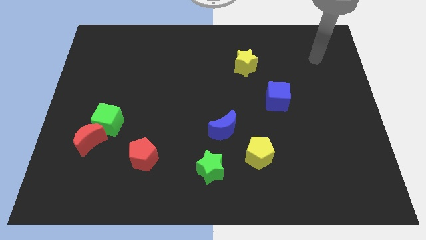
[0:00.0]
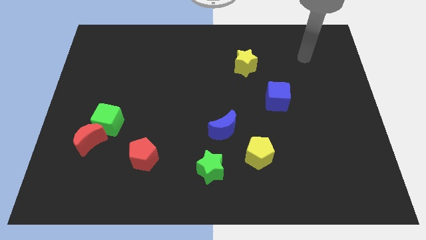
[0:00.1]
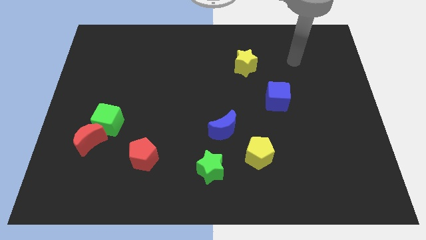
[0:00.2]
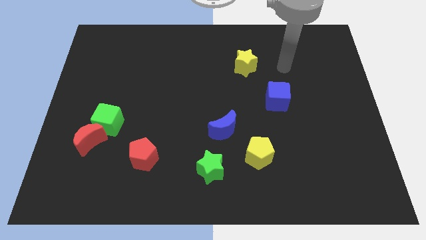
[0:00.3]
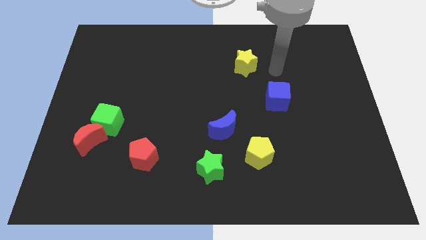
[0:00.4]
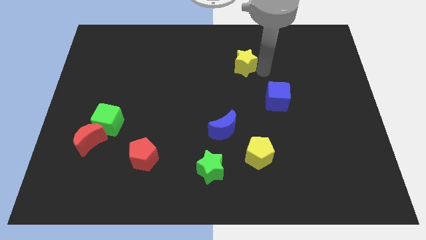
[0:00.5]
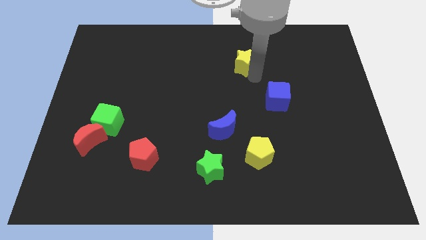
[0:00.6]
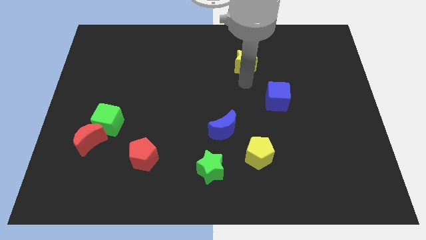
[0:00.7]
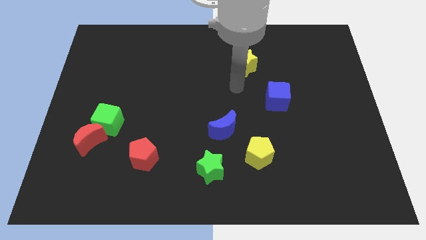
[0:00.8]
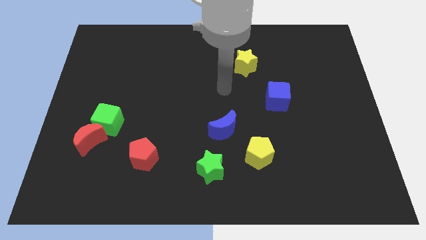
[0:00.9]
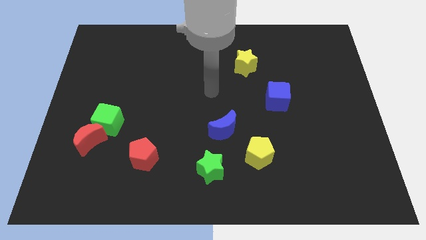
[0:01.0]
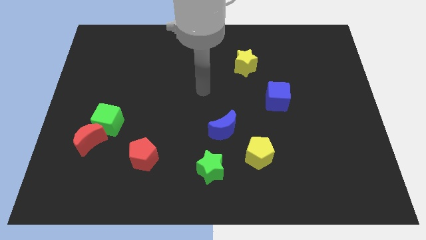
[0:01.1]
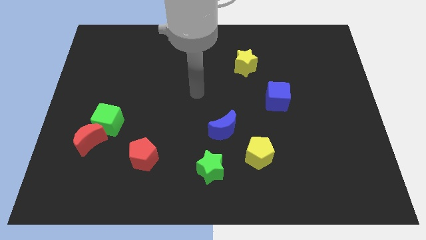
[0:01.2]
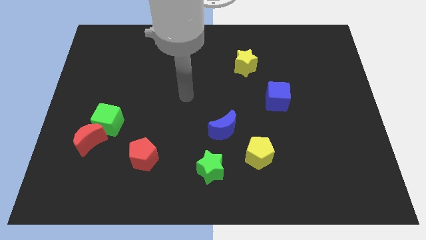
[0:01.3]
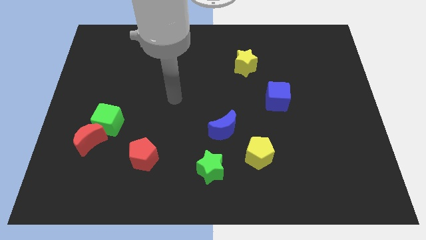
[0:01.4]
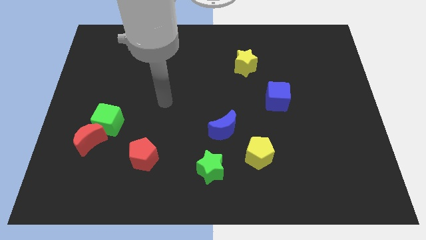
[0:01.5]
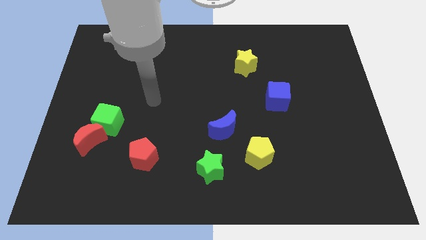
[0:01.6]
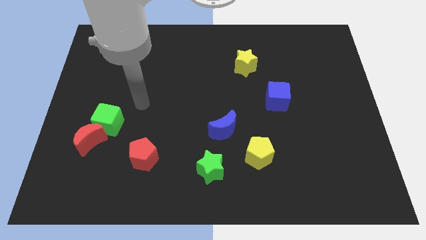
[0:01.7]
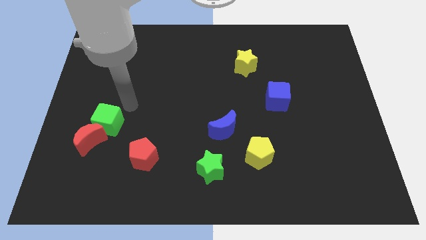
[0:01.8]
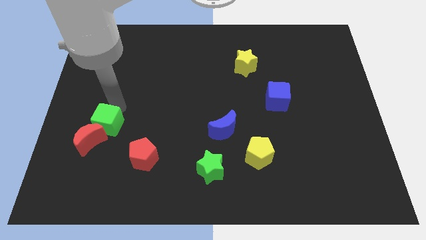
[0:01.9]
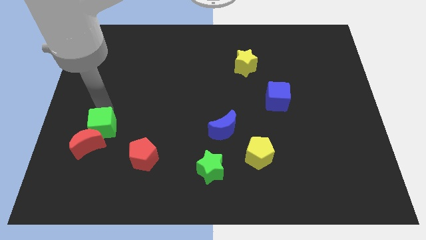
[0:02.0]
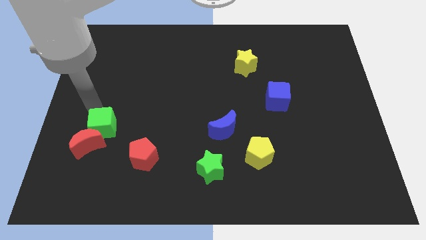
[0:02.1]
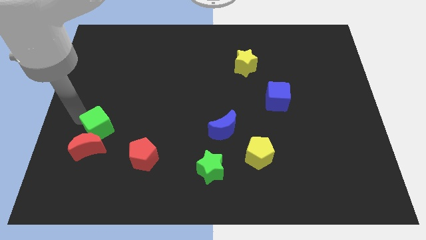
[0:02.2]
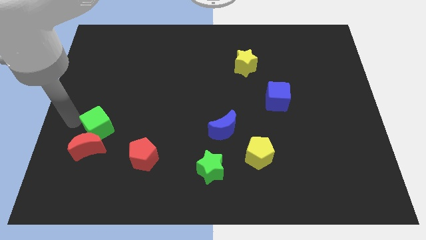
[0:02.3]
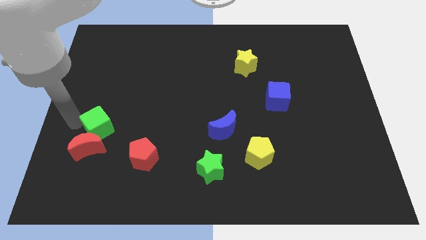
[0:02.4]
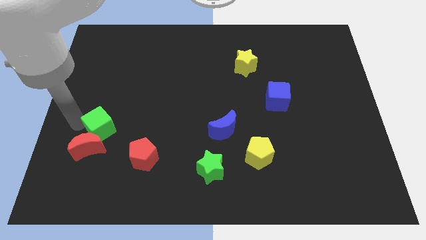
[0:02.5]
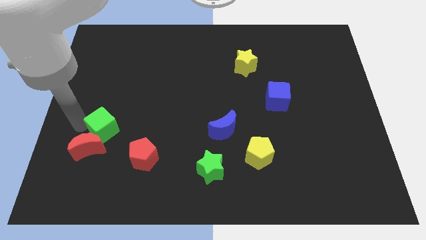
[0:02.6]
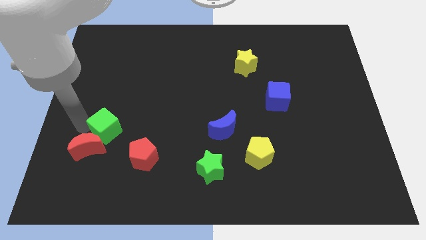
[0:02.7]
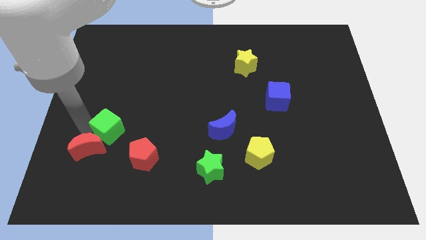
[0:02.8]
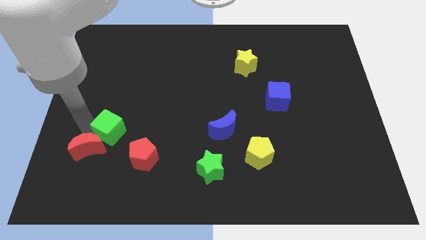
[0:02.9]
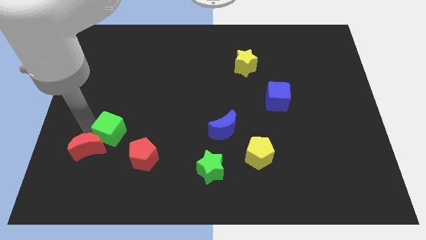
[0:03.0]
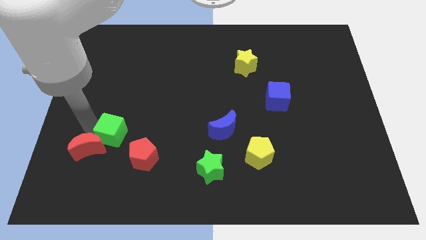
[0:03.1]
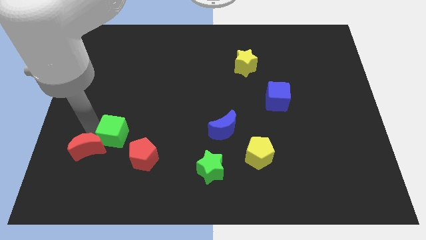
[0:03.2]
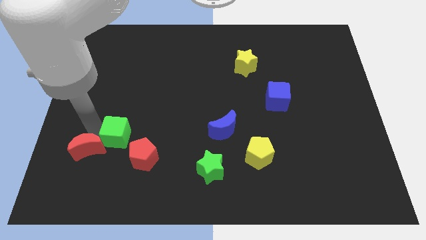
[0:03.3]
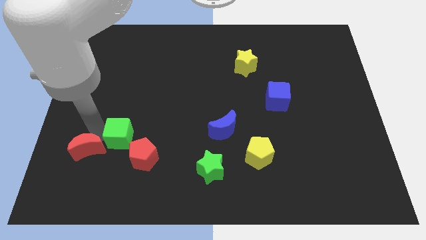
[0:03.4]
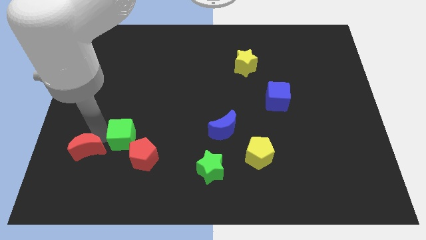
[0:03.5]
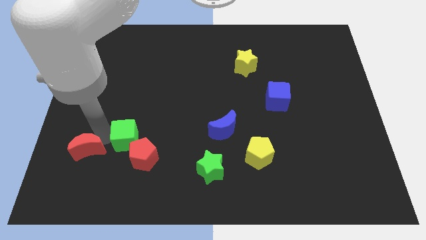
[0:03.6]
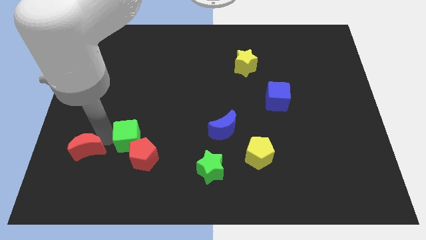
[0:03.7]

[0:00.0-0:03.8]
slightly slide the green cube down and then right

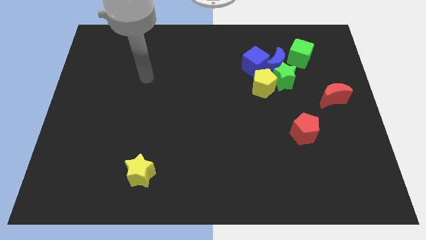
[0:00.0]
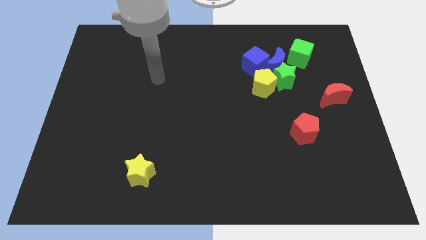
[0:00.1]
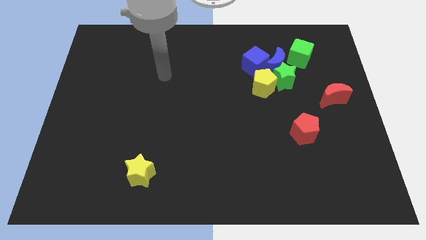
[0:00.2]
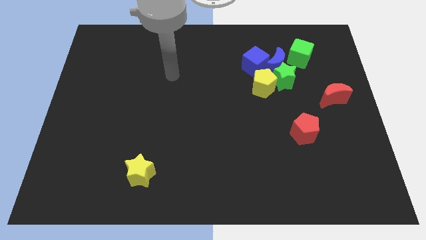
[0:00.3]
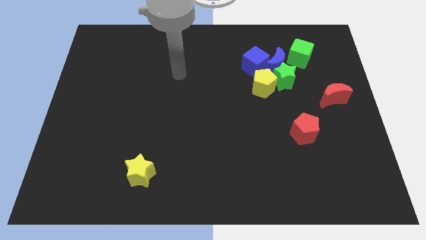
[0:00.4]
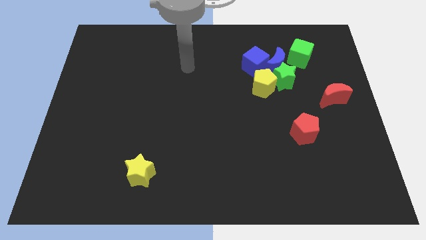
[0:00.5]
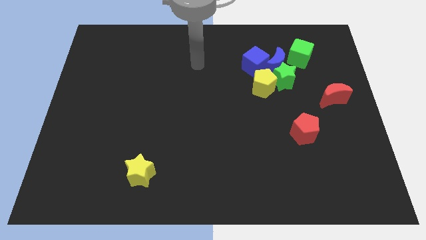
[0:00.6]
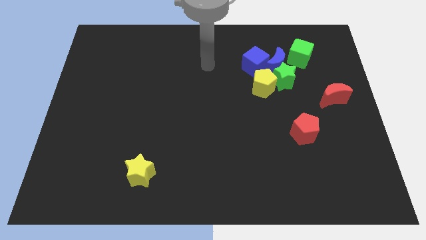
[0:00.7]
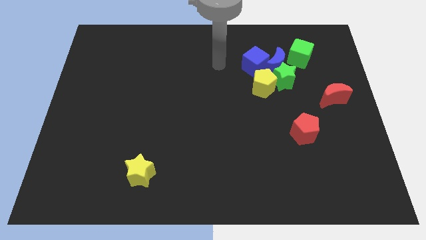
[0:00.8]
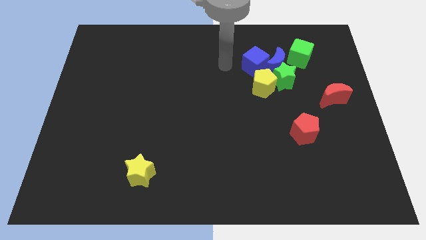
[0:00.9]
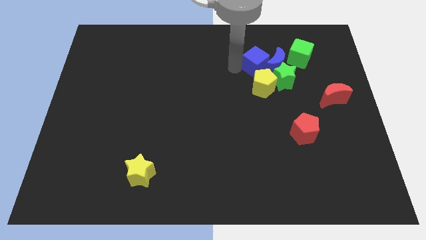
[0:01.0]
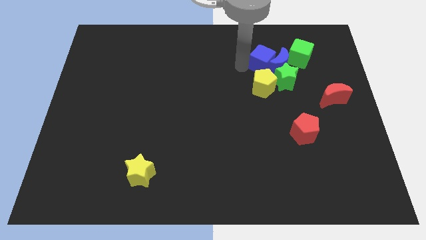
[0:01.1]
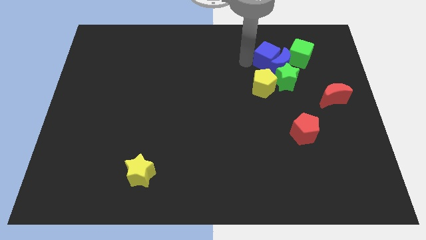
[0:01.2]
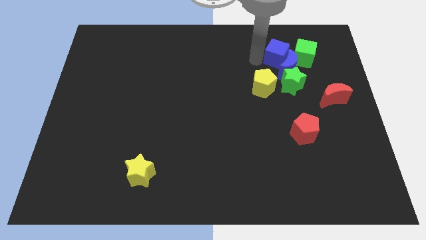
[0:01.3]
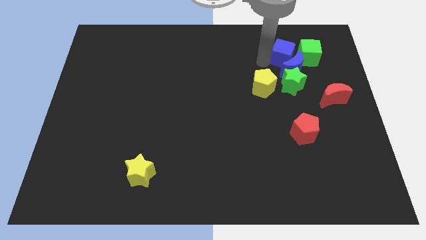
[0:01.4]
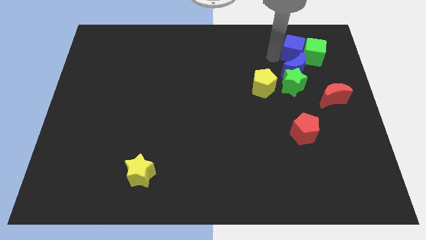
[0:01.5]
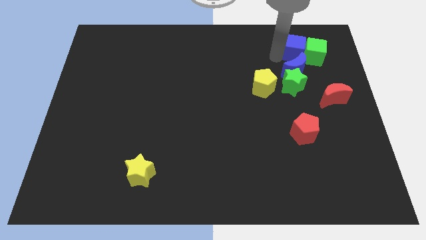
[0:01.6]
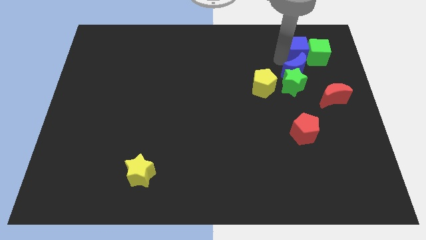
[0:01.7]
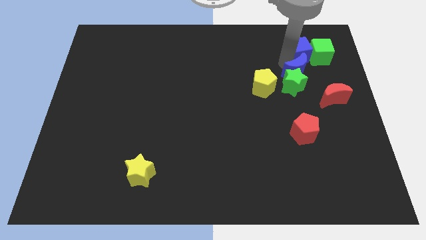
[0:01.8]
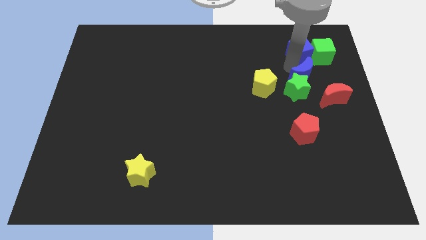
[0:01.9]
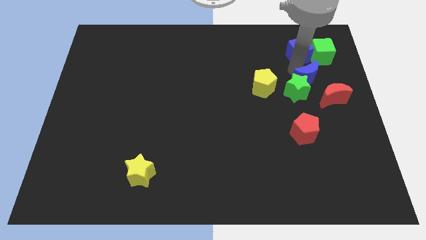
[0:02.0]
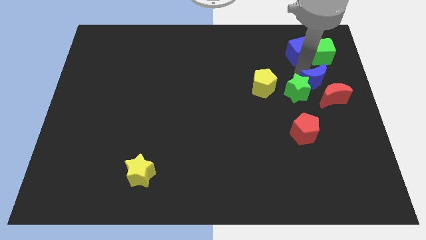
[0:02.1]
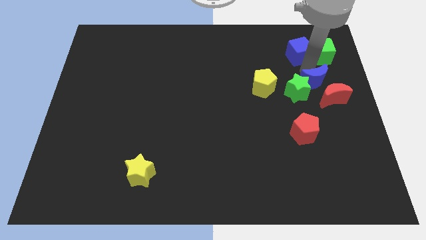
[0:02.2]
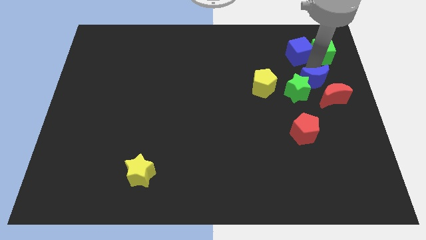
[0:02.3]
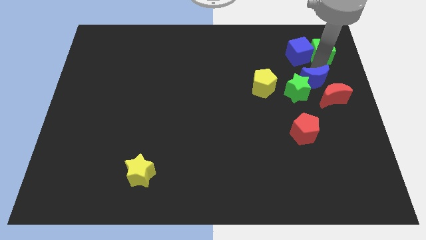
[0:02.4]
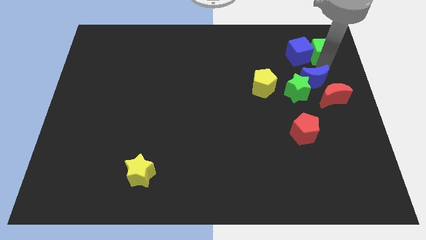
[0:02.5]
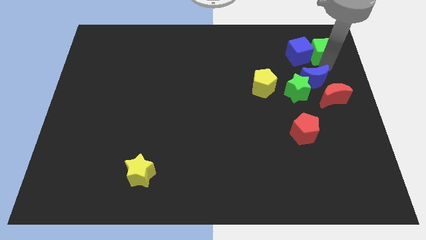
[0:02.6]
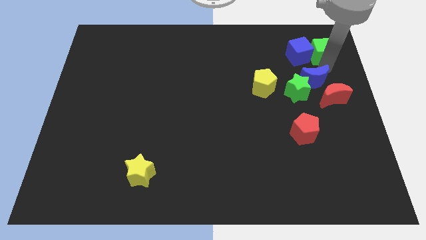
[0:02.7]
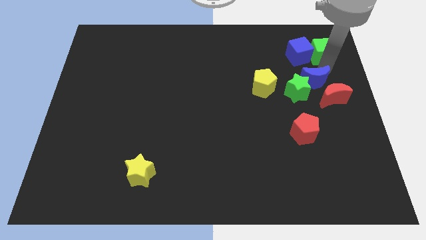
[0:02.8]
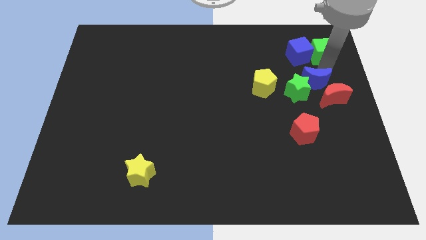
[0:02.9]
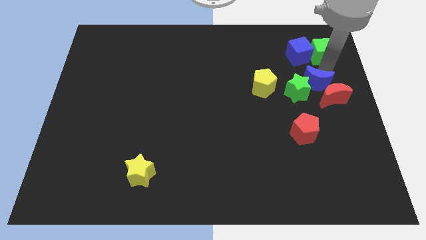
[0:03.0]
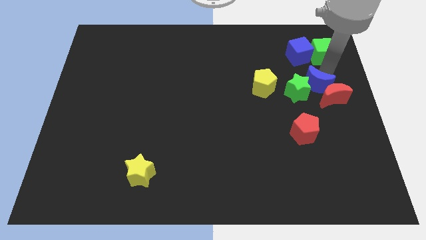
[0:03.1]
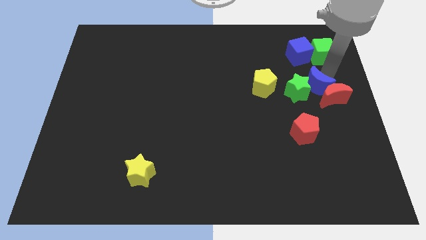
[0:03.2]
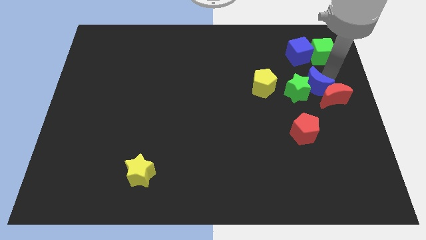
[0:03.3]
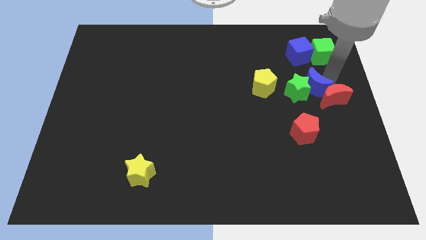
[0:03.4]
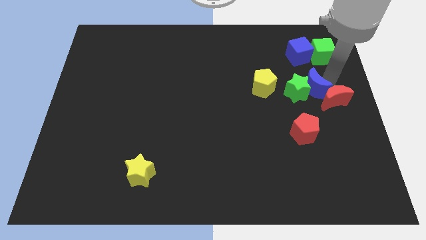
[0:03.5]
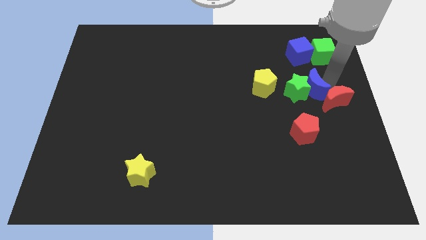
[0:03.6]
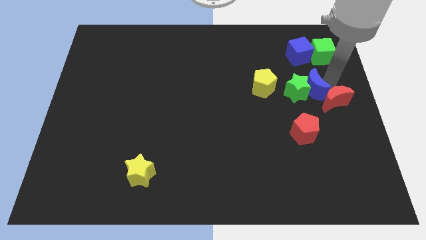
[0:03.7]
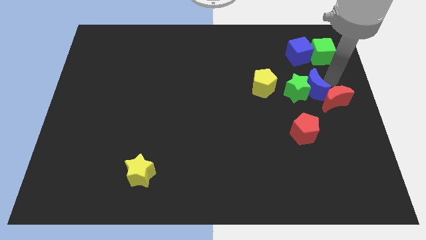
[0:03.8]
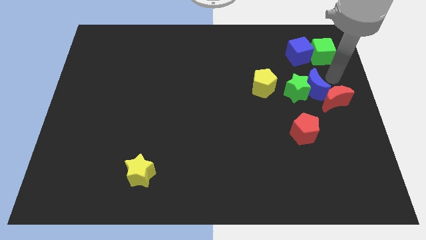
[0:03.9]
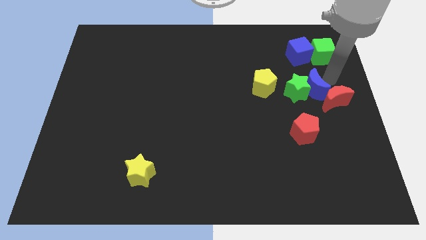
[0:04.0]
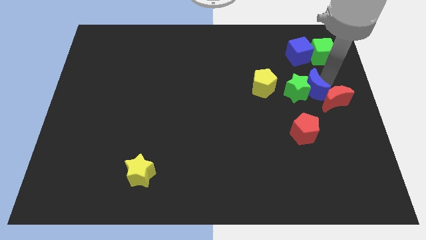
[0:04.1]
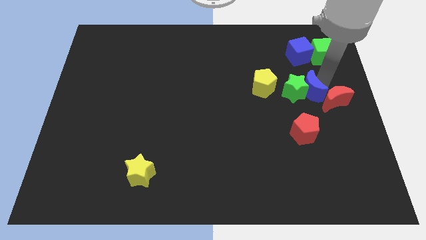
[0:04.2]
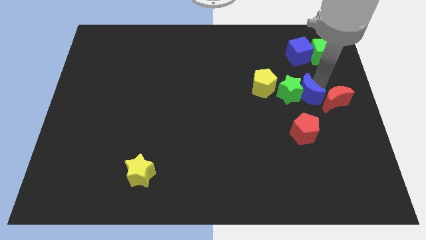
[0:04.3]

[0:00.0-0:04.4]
slightly push the blue moon downwards
